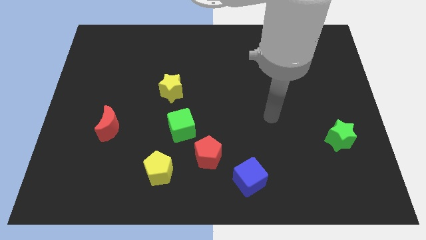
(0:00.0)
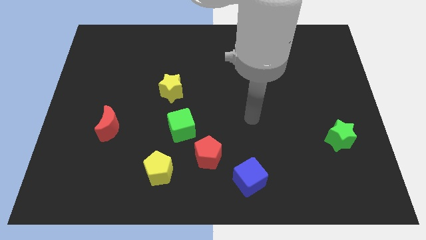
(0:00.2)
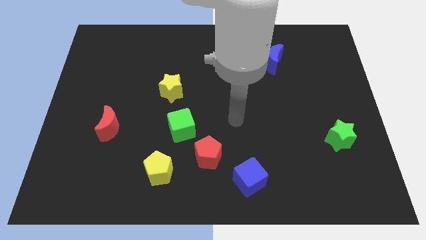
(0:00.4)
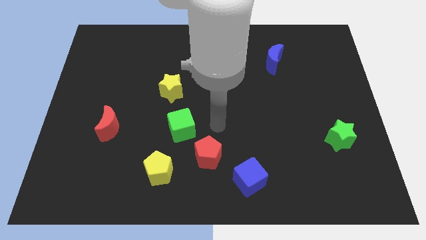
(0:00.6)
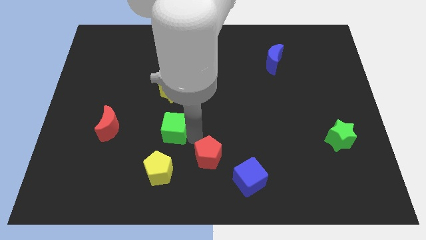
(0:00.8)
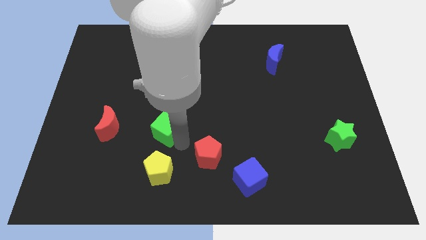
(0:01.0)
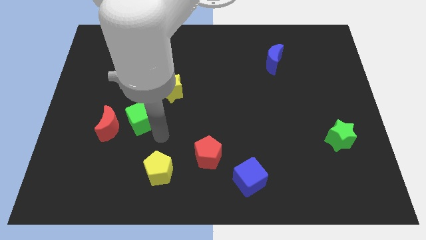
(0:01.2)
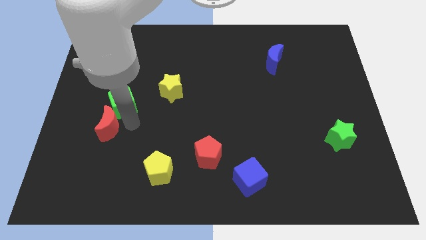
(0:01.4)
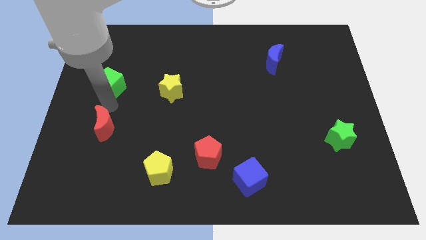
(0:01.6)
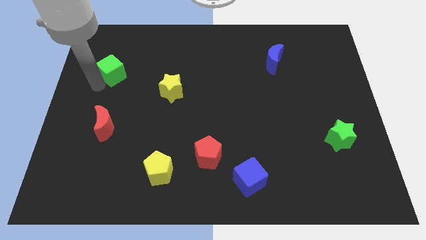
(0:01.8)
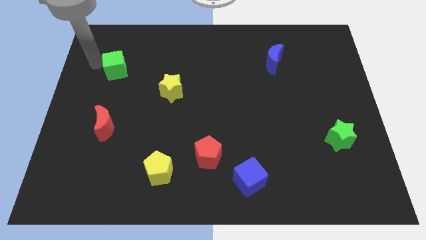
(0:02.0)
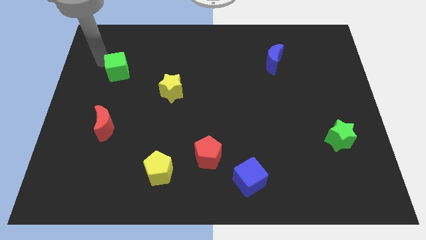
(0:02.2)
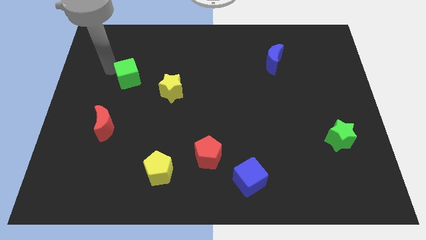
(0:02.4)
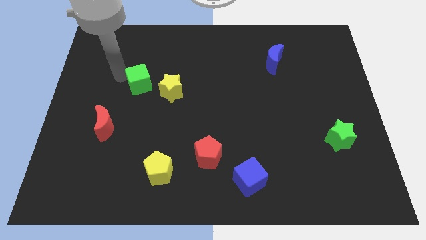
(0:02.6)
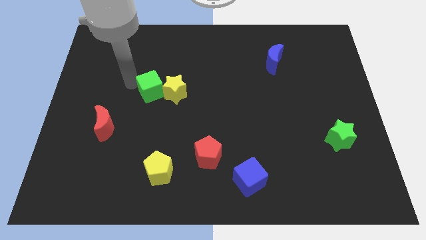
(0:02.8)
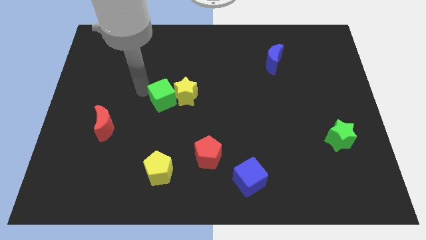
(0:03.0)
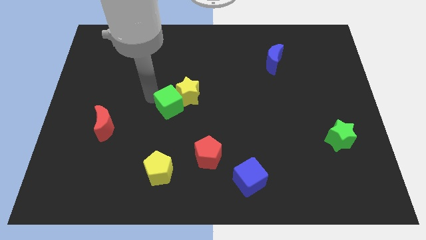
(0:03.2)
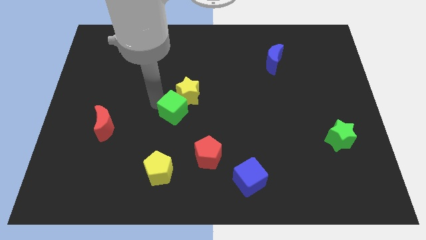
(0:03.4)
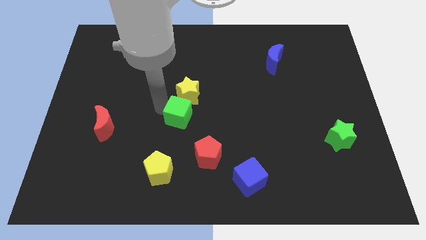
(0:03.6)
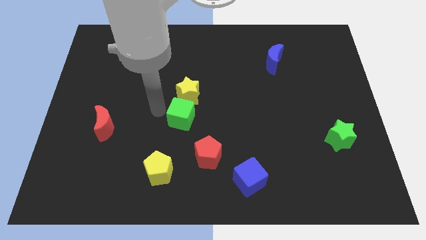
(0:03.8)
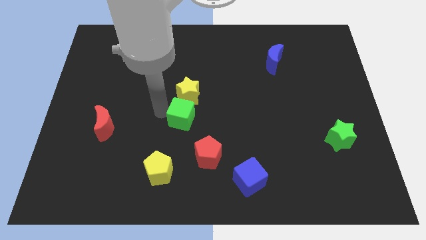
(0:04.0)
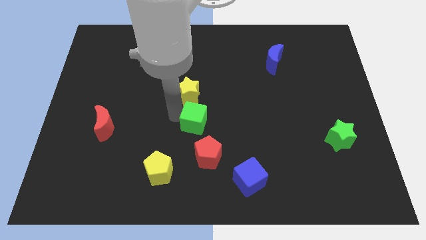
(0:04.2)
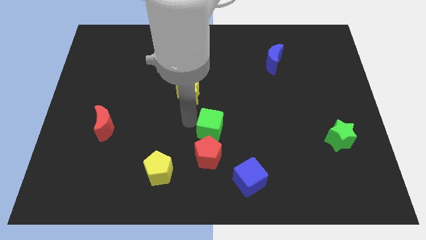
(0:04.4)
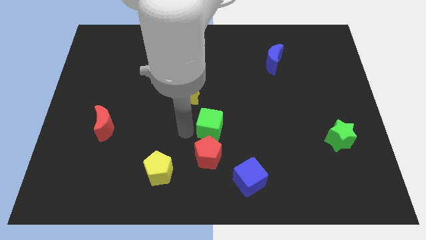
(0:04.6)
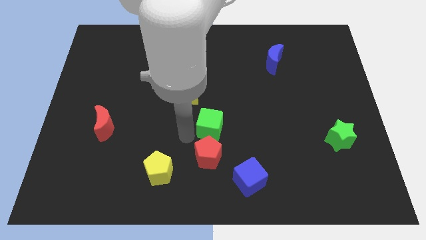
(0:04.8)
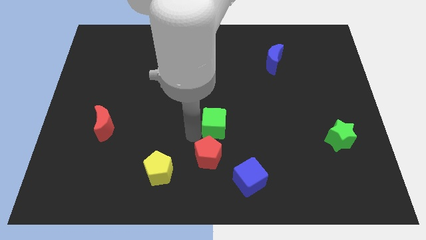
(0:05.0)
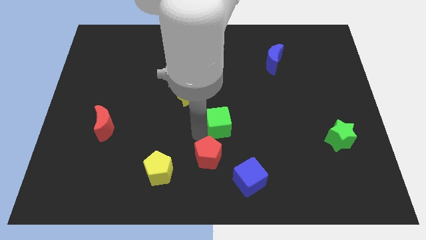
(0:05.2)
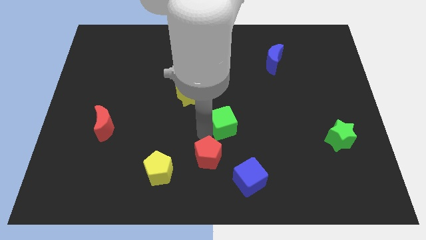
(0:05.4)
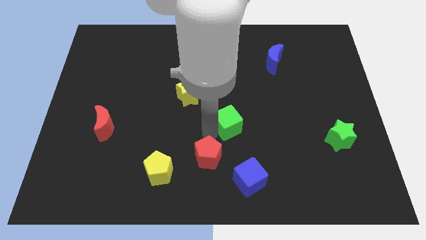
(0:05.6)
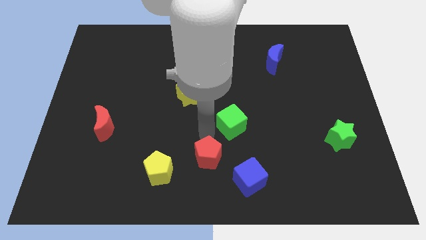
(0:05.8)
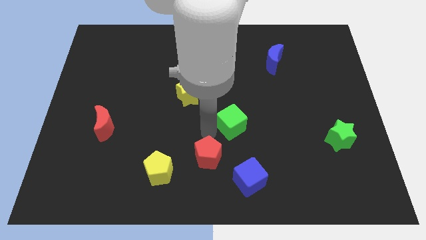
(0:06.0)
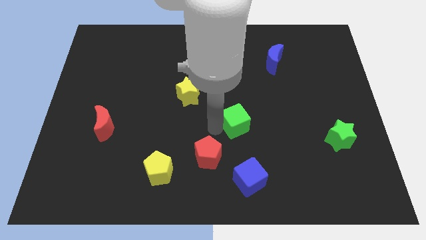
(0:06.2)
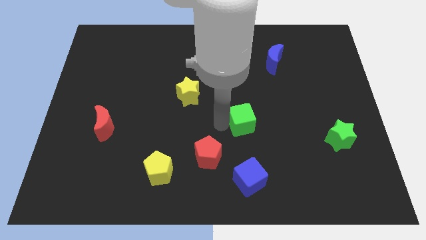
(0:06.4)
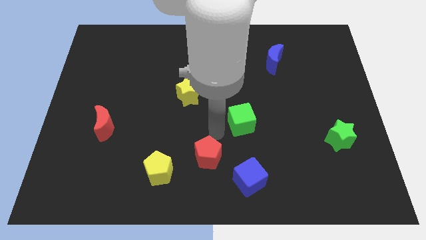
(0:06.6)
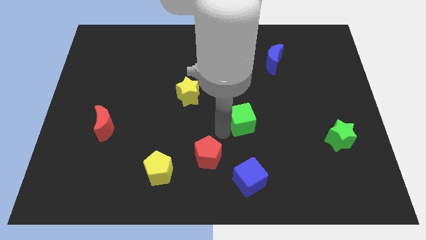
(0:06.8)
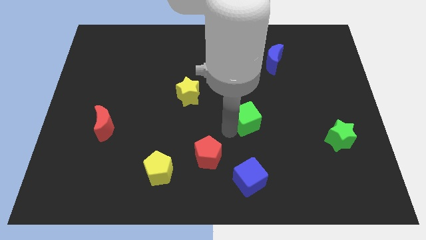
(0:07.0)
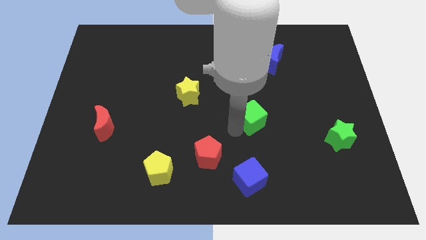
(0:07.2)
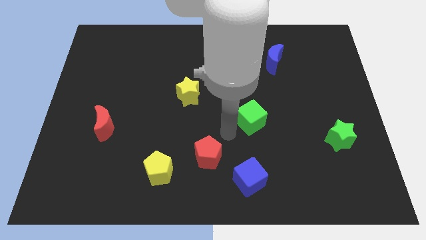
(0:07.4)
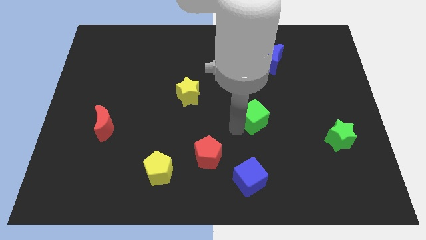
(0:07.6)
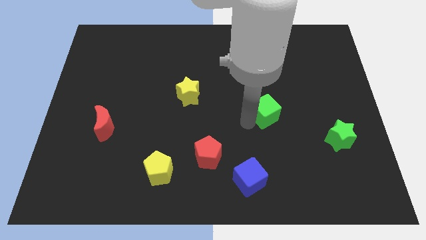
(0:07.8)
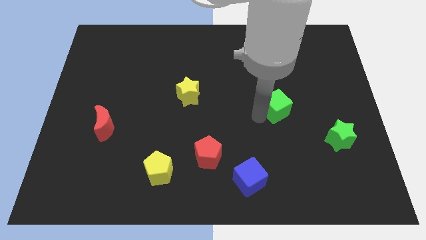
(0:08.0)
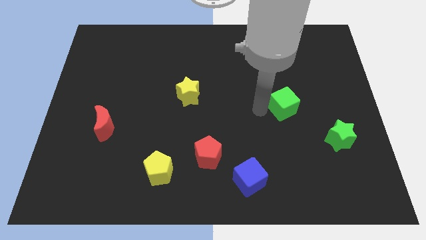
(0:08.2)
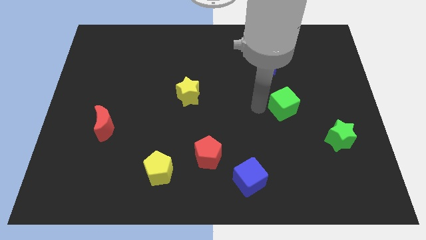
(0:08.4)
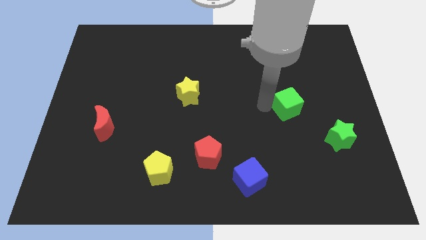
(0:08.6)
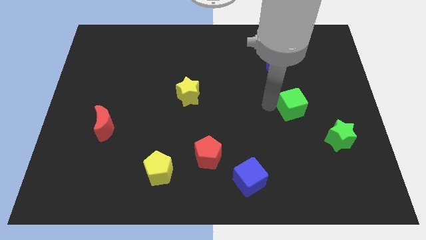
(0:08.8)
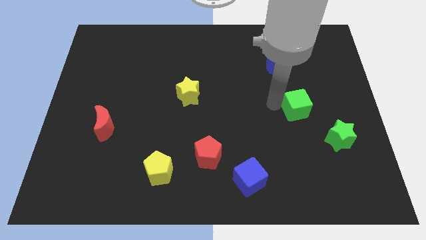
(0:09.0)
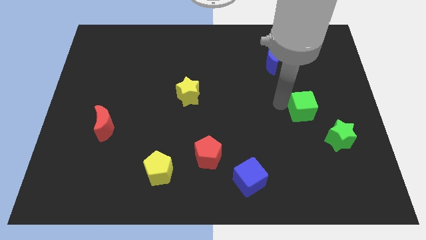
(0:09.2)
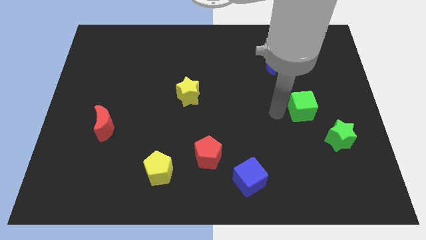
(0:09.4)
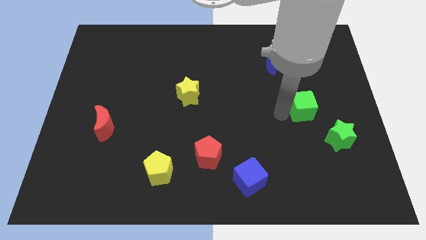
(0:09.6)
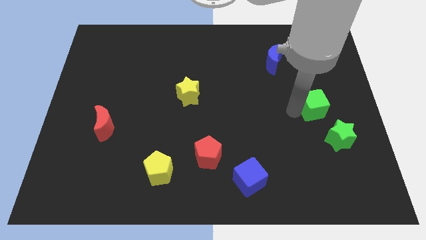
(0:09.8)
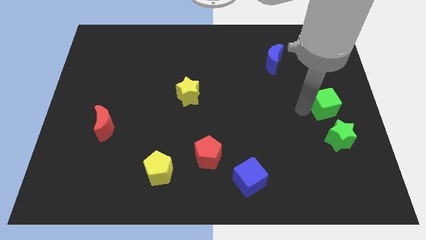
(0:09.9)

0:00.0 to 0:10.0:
push the green cube to the center right

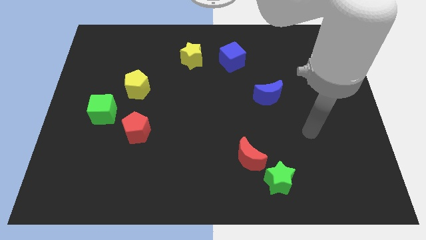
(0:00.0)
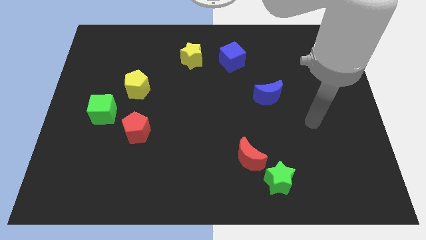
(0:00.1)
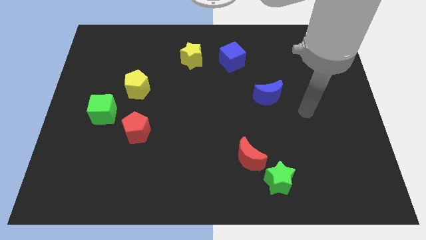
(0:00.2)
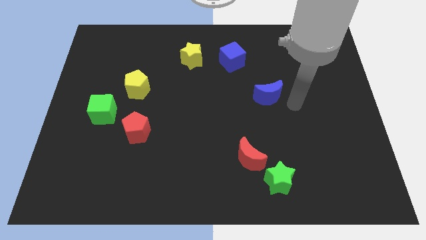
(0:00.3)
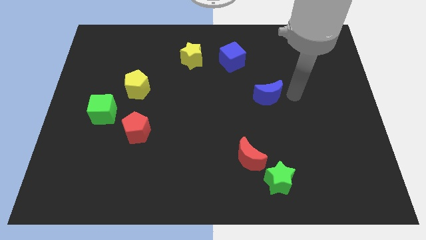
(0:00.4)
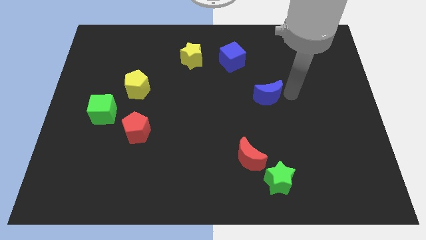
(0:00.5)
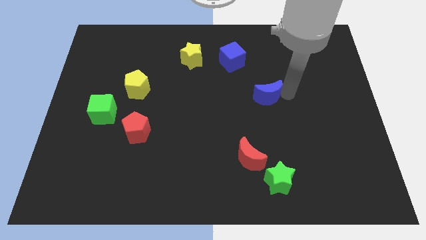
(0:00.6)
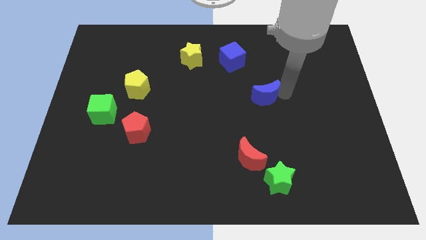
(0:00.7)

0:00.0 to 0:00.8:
slide the blue moon to the middle of the board

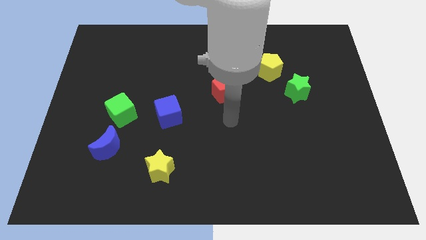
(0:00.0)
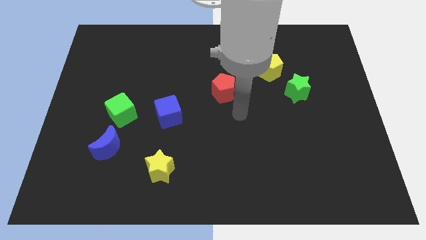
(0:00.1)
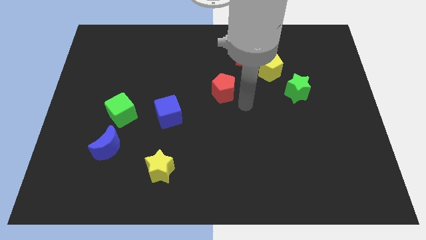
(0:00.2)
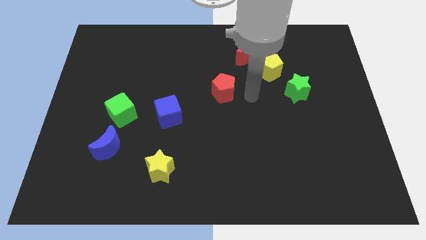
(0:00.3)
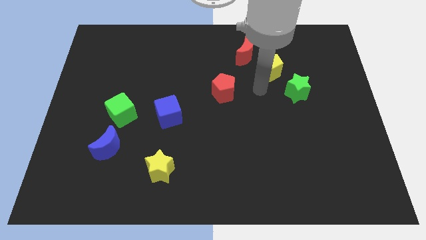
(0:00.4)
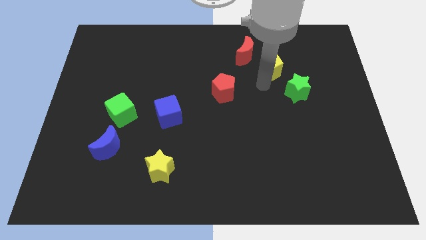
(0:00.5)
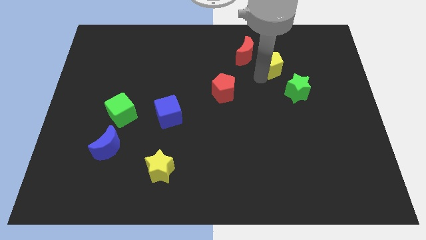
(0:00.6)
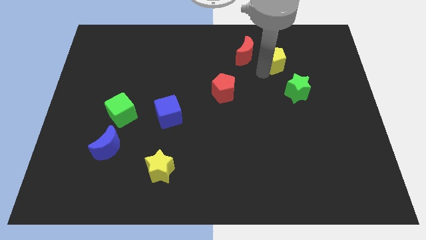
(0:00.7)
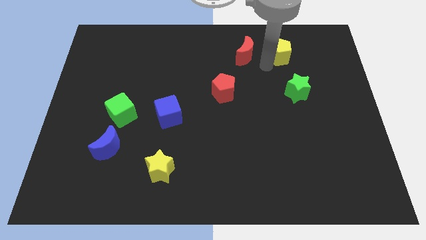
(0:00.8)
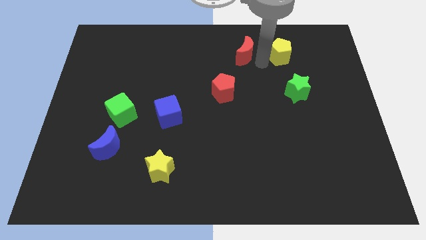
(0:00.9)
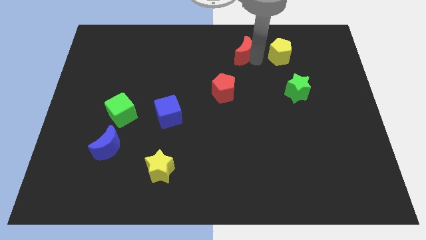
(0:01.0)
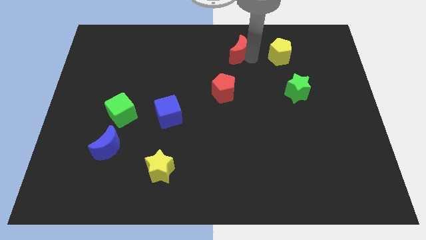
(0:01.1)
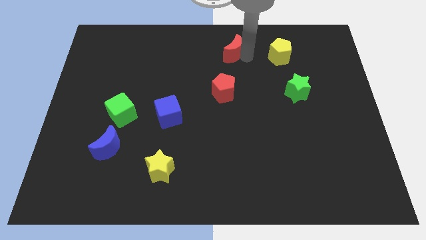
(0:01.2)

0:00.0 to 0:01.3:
move the red moon to the top
